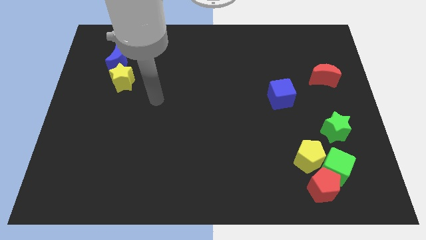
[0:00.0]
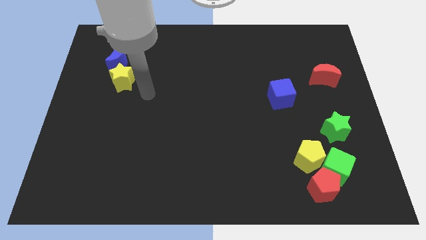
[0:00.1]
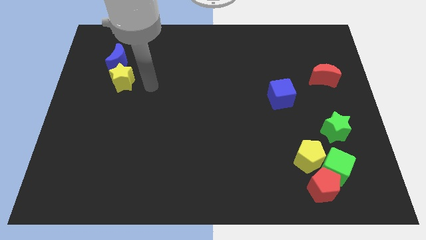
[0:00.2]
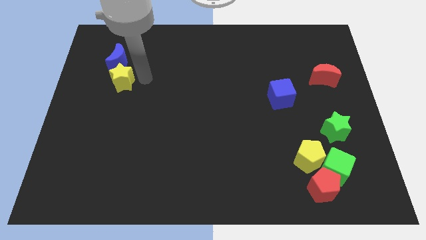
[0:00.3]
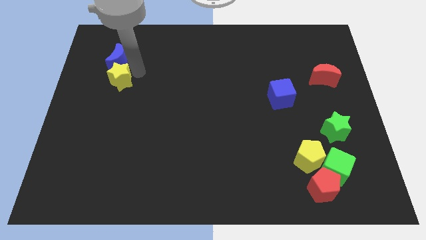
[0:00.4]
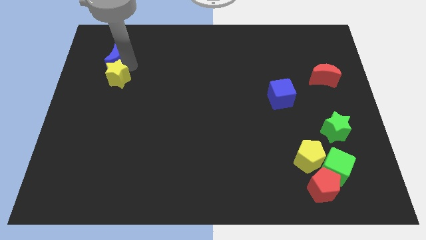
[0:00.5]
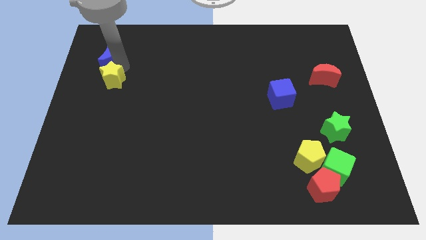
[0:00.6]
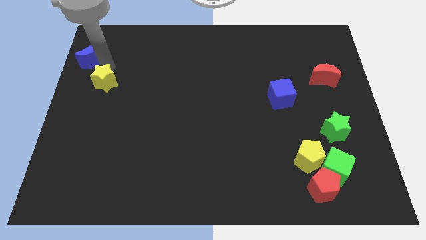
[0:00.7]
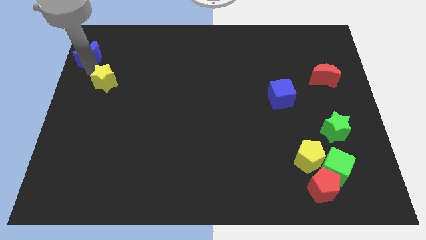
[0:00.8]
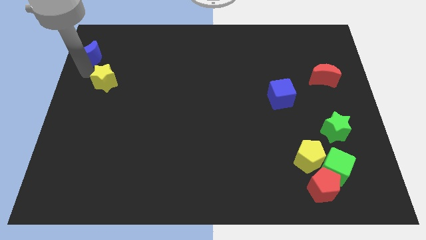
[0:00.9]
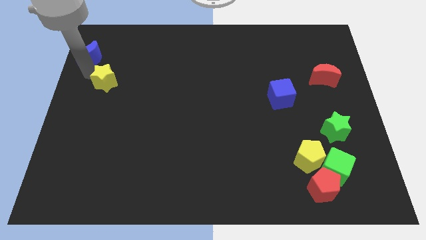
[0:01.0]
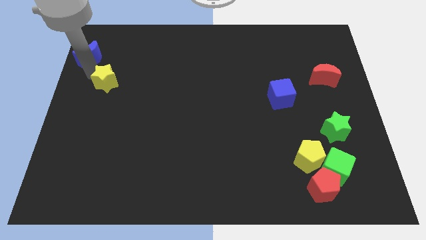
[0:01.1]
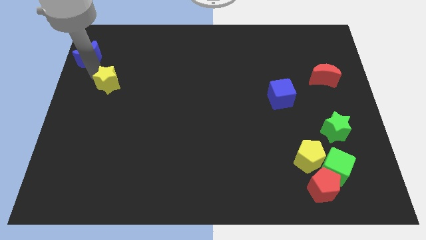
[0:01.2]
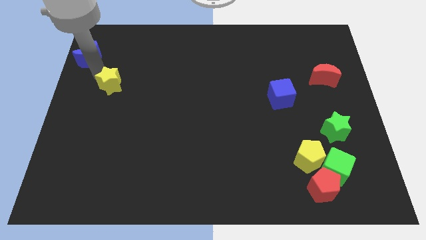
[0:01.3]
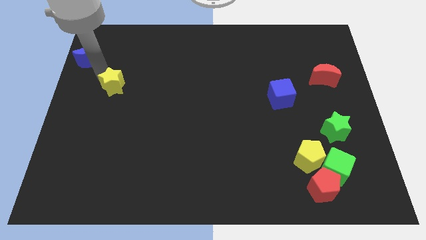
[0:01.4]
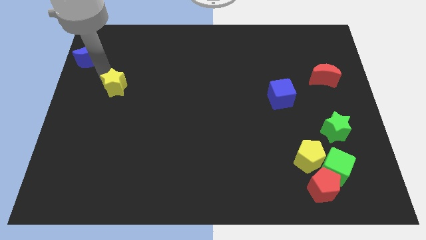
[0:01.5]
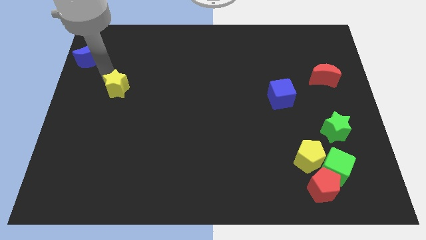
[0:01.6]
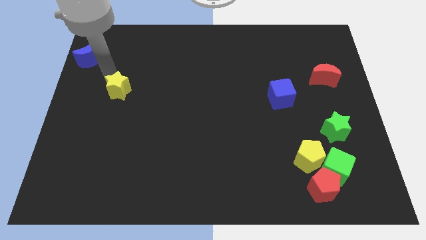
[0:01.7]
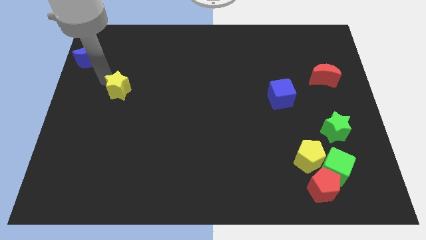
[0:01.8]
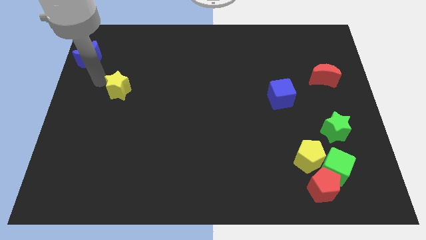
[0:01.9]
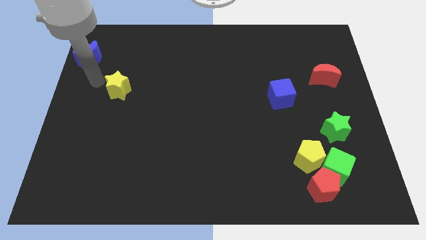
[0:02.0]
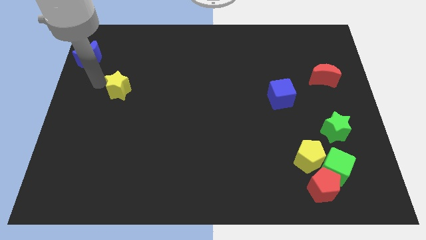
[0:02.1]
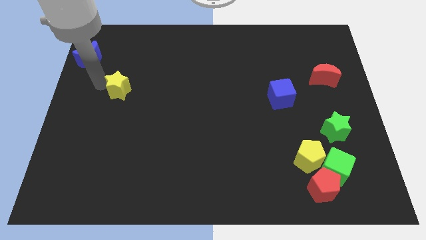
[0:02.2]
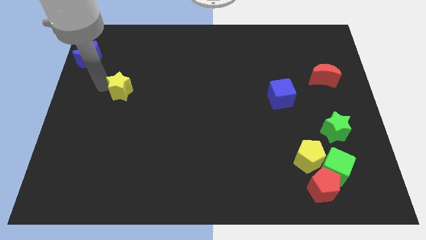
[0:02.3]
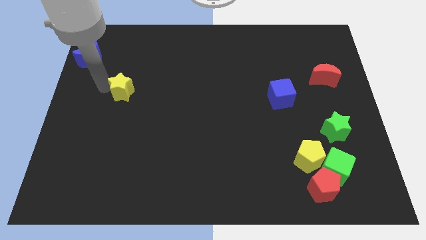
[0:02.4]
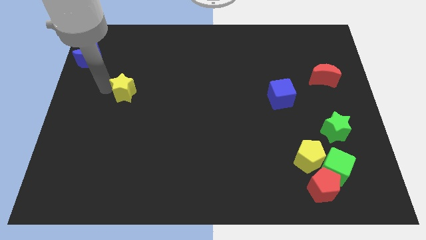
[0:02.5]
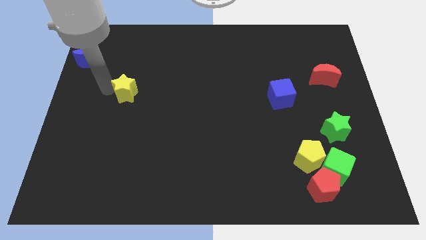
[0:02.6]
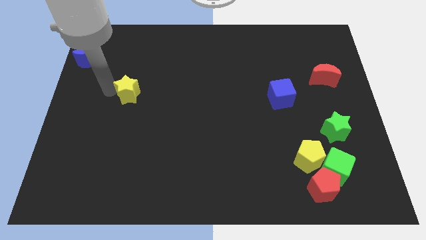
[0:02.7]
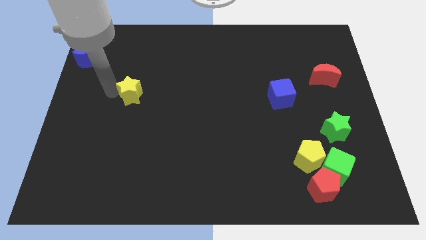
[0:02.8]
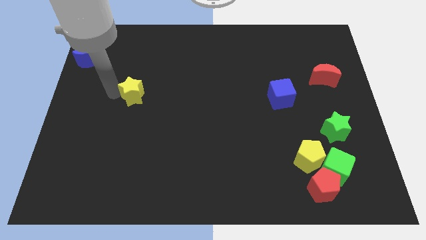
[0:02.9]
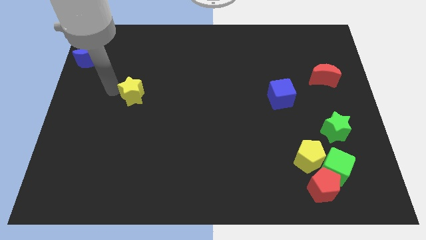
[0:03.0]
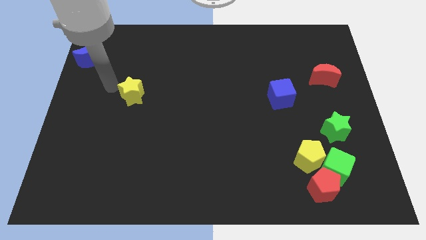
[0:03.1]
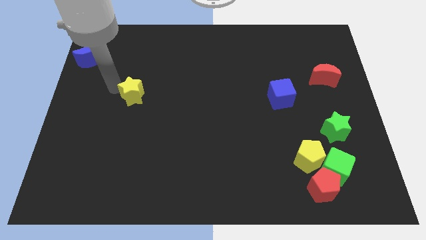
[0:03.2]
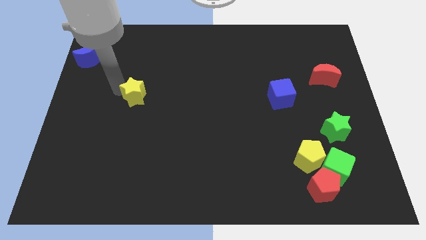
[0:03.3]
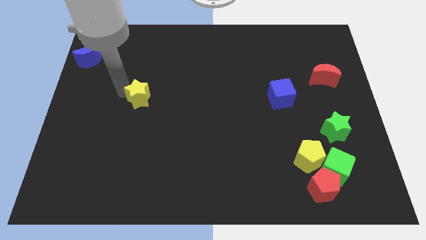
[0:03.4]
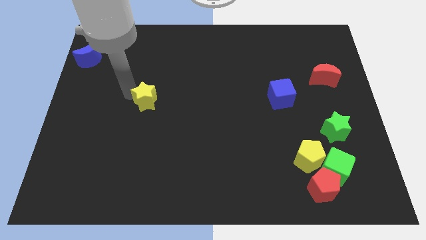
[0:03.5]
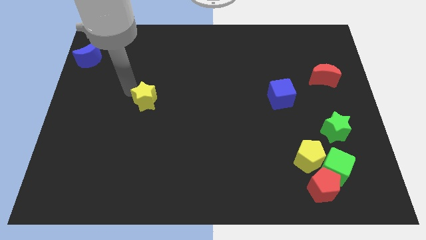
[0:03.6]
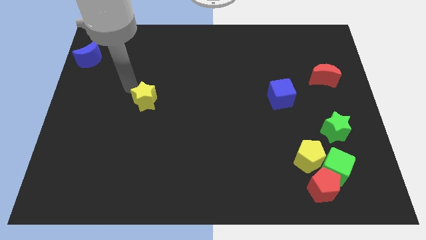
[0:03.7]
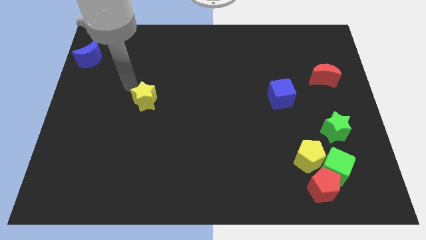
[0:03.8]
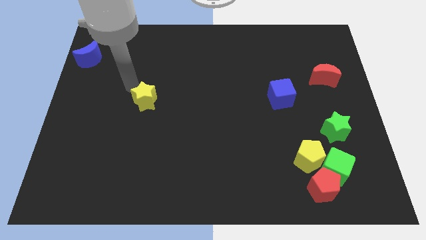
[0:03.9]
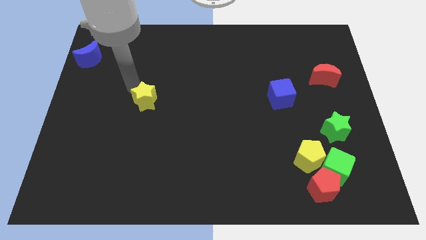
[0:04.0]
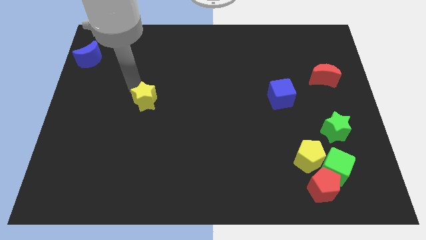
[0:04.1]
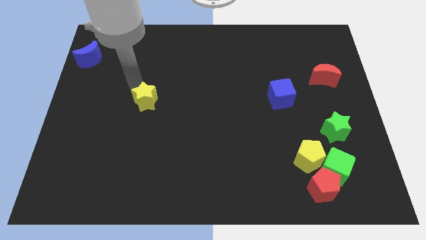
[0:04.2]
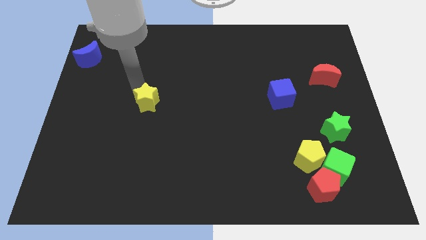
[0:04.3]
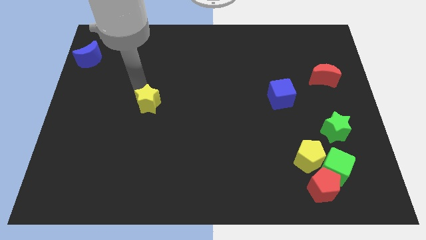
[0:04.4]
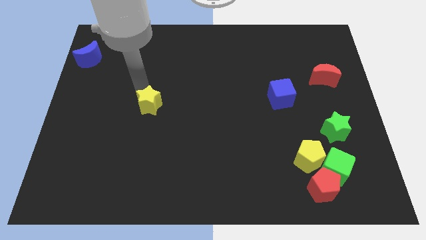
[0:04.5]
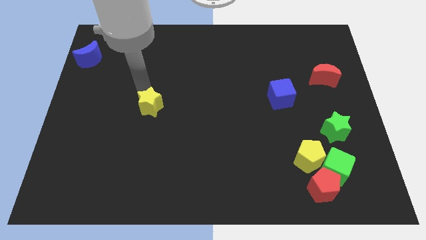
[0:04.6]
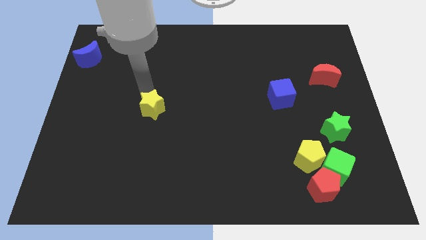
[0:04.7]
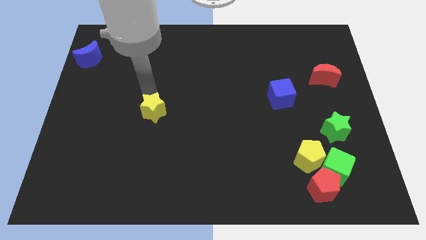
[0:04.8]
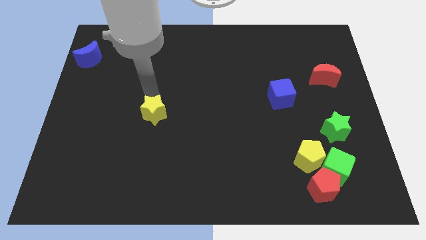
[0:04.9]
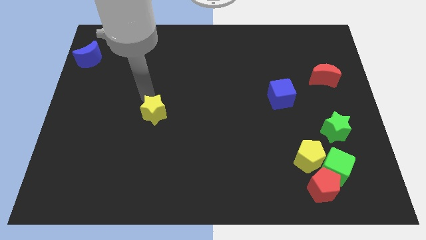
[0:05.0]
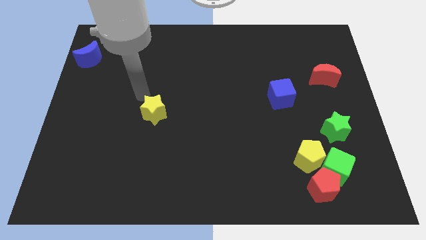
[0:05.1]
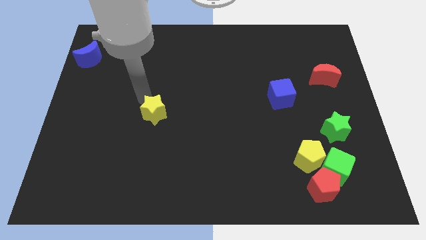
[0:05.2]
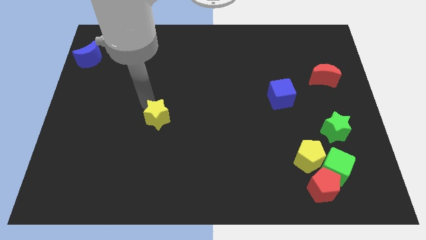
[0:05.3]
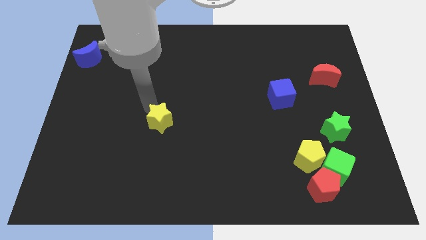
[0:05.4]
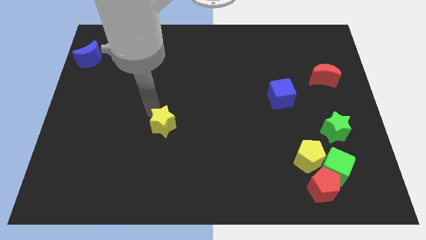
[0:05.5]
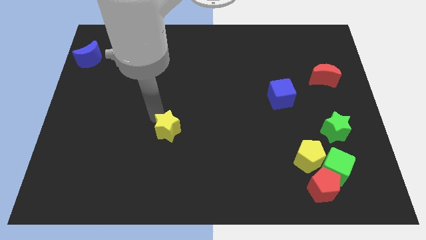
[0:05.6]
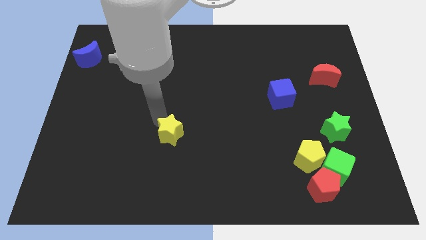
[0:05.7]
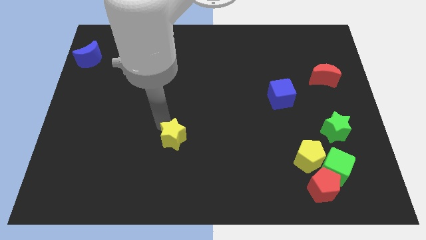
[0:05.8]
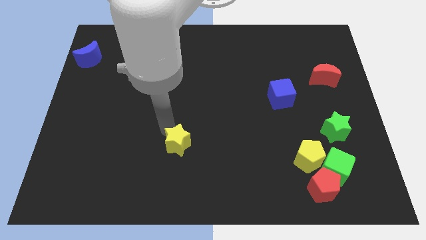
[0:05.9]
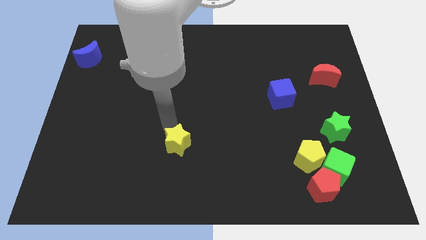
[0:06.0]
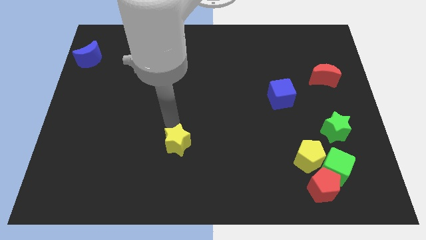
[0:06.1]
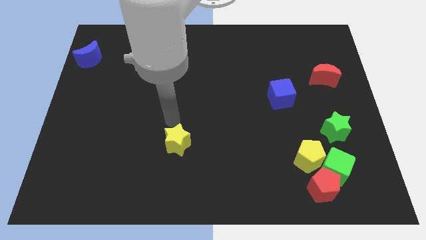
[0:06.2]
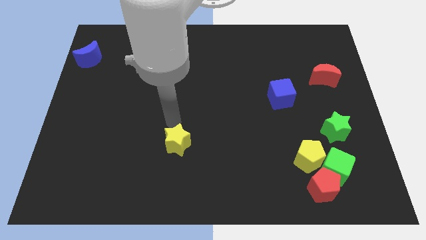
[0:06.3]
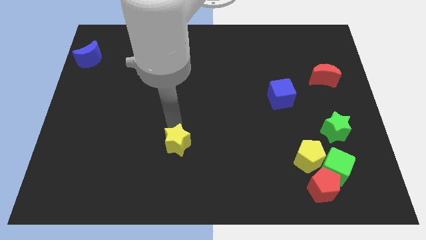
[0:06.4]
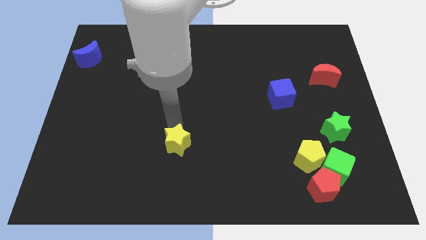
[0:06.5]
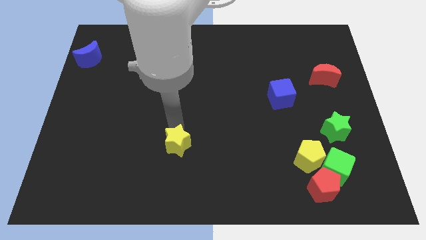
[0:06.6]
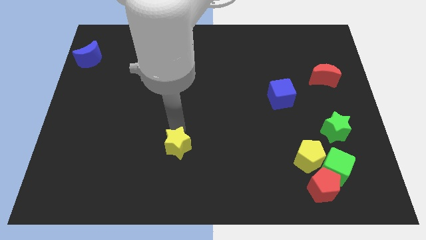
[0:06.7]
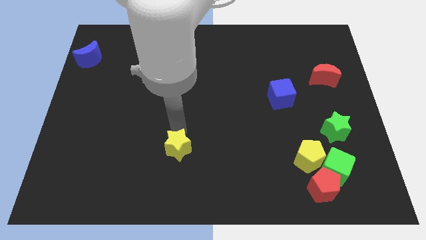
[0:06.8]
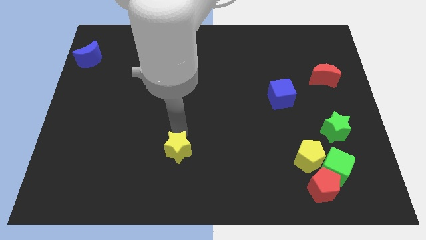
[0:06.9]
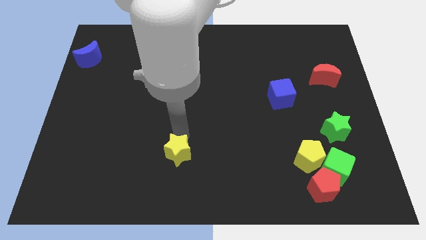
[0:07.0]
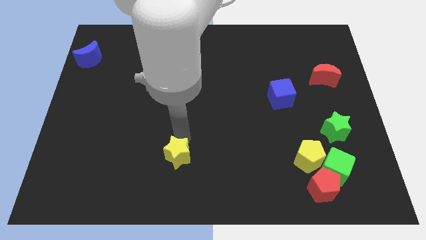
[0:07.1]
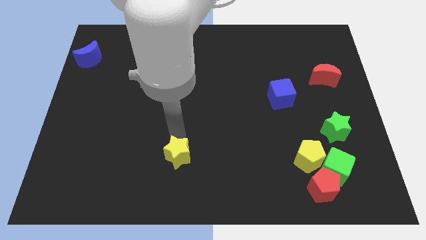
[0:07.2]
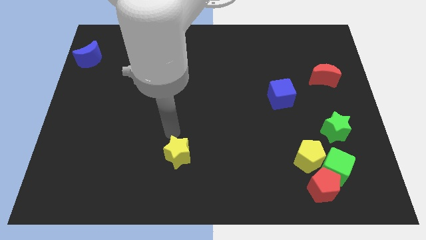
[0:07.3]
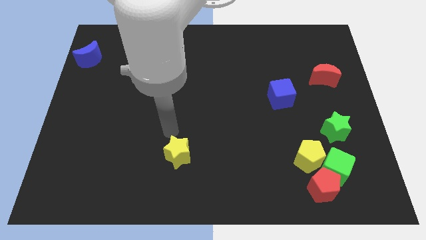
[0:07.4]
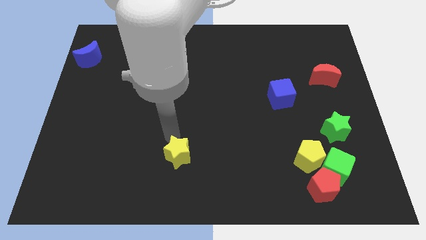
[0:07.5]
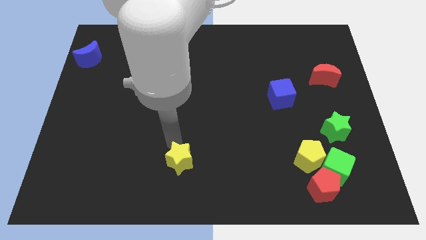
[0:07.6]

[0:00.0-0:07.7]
push the yellow star to the bottom side
